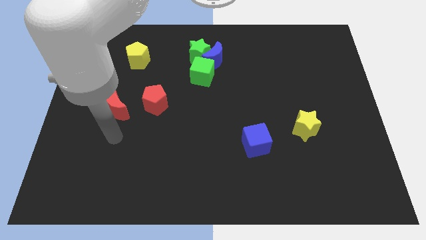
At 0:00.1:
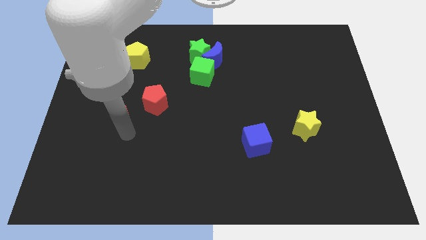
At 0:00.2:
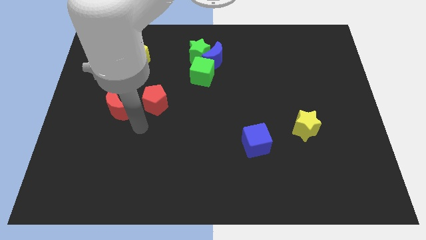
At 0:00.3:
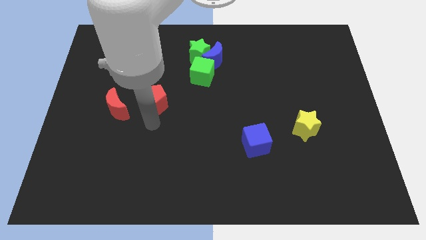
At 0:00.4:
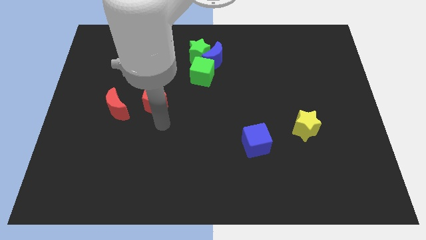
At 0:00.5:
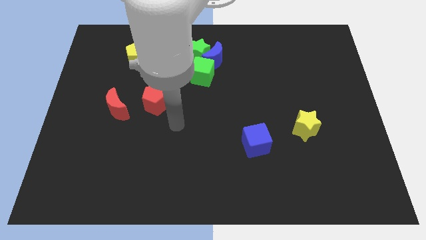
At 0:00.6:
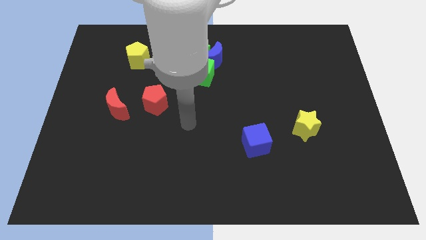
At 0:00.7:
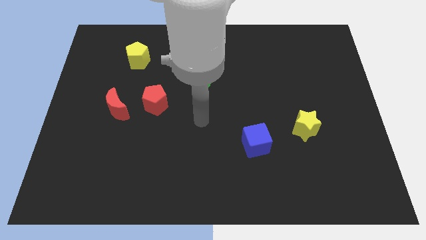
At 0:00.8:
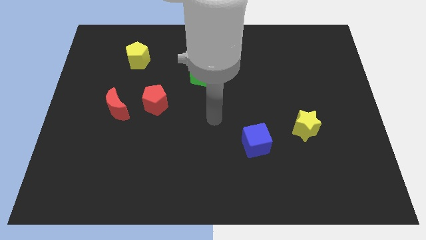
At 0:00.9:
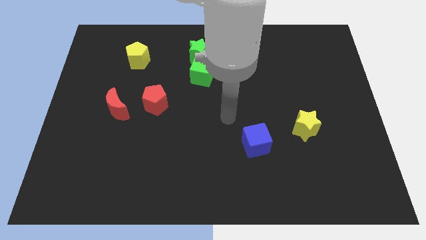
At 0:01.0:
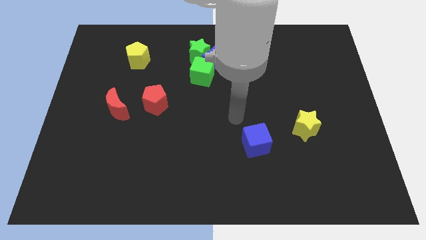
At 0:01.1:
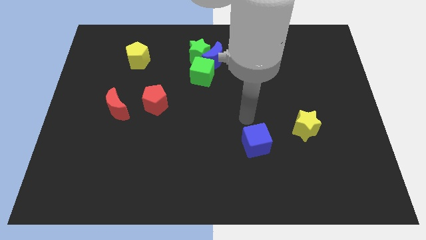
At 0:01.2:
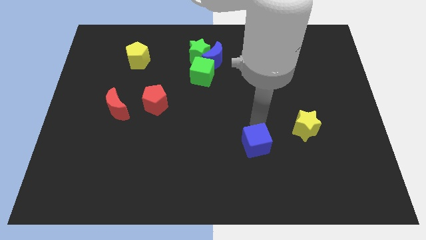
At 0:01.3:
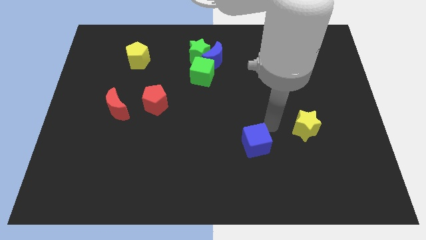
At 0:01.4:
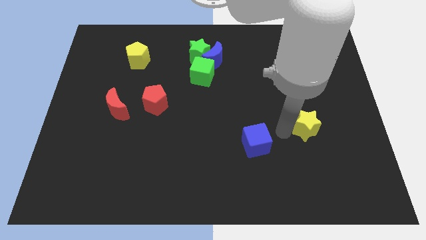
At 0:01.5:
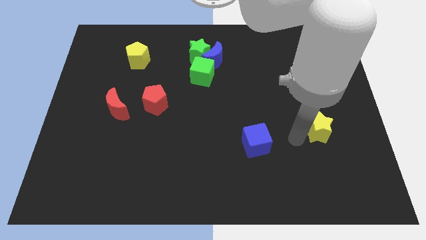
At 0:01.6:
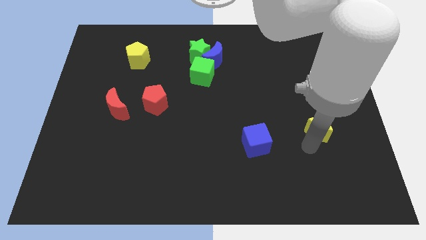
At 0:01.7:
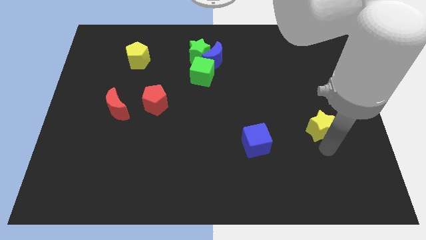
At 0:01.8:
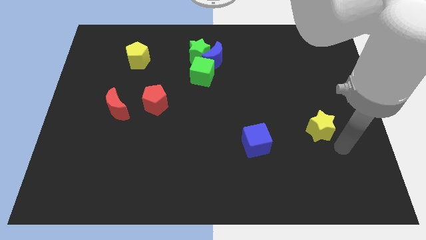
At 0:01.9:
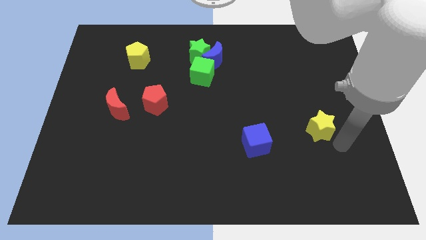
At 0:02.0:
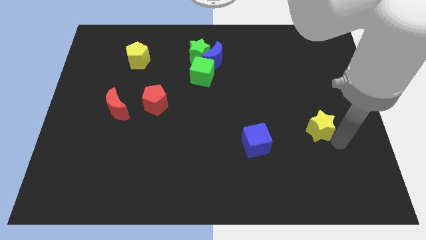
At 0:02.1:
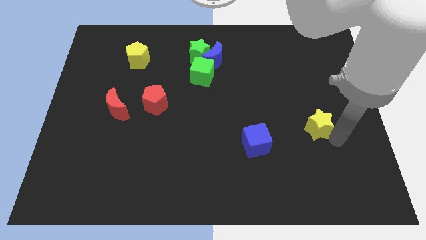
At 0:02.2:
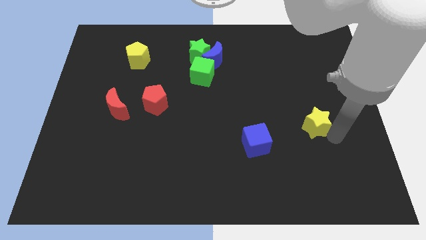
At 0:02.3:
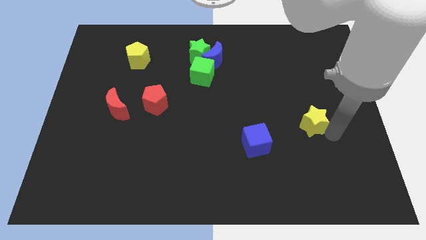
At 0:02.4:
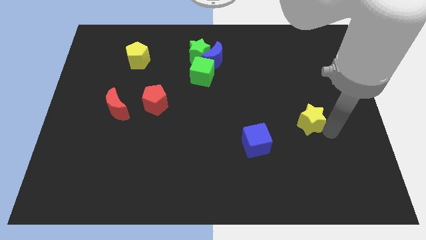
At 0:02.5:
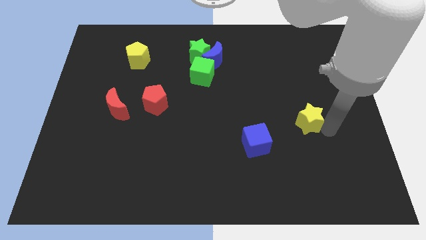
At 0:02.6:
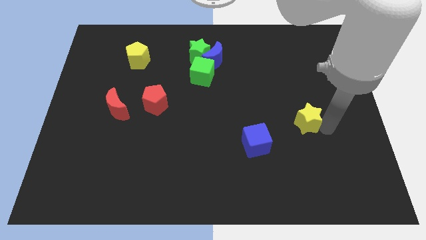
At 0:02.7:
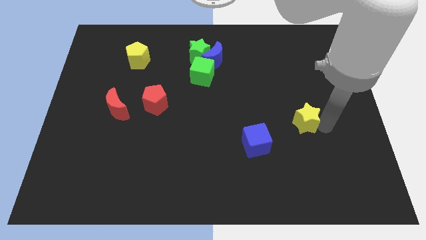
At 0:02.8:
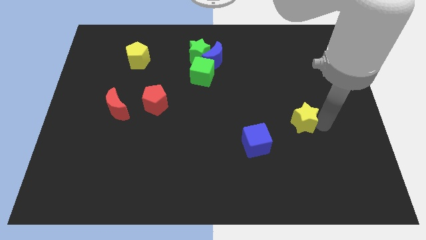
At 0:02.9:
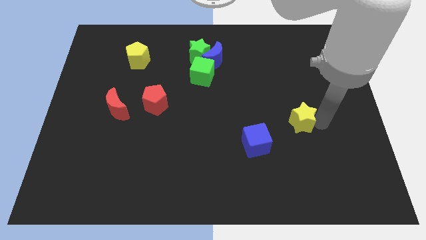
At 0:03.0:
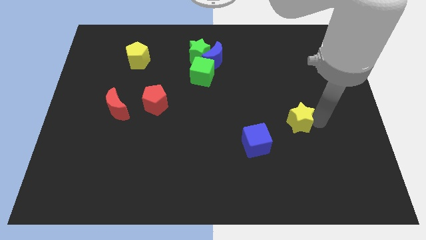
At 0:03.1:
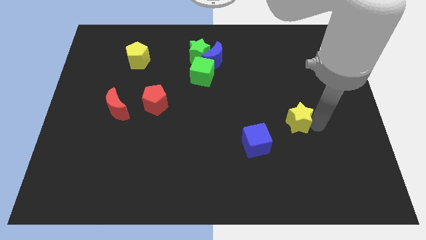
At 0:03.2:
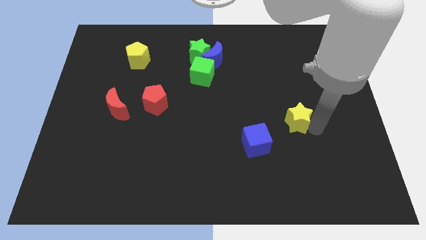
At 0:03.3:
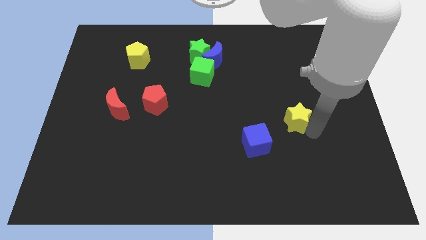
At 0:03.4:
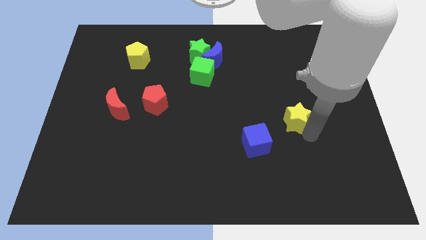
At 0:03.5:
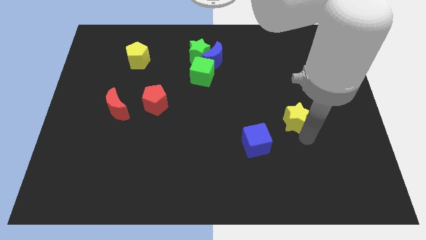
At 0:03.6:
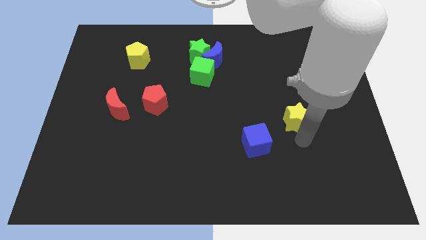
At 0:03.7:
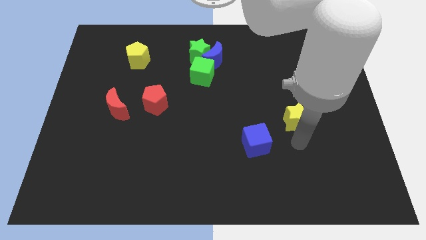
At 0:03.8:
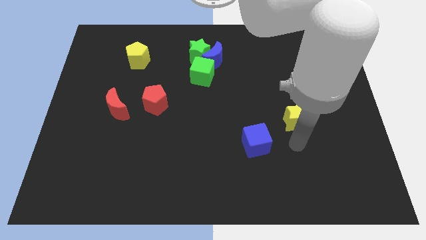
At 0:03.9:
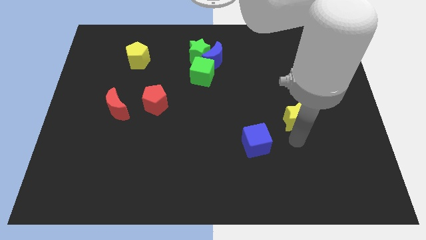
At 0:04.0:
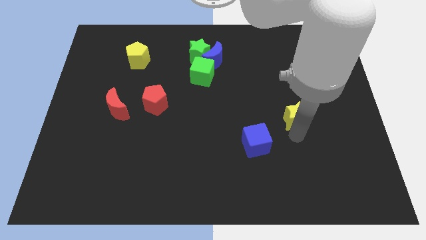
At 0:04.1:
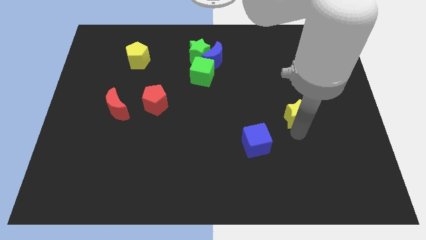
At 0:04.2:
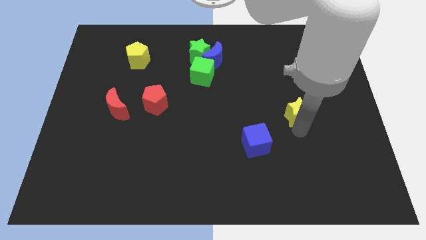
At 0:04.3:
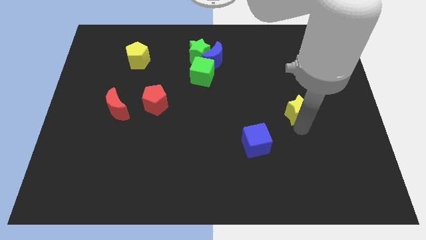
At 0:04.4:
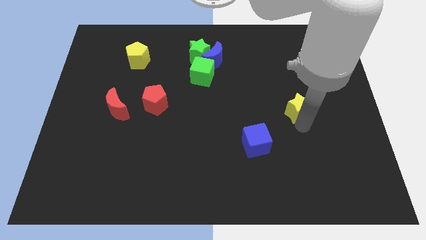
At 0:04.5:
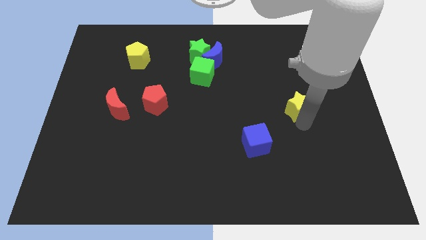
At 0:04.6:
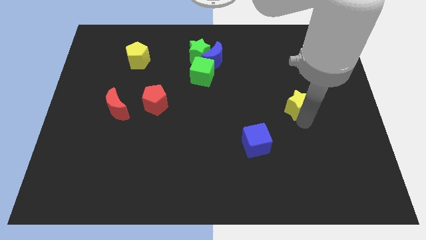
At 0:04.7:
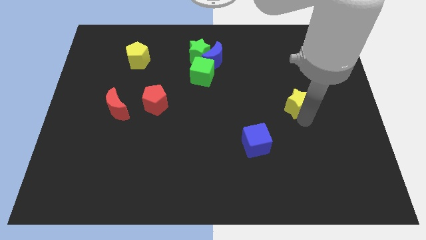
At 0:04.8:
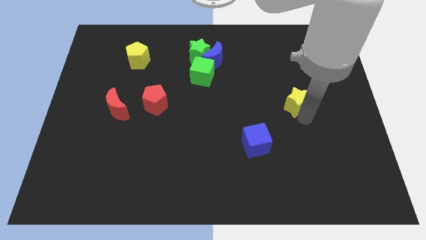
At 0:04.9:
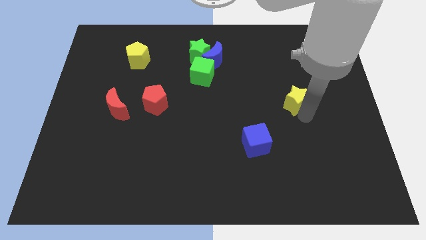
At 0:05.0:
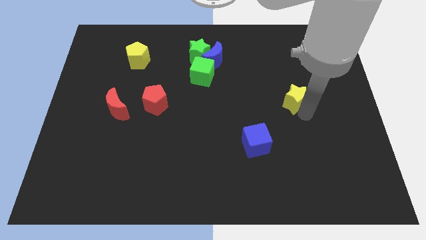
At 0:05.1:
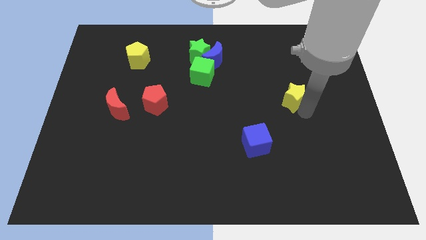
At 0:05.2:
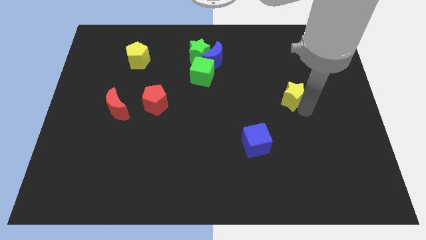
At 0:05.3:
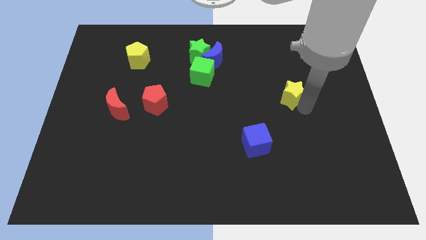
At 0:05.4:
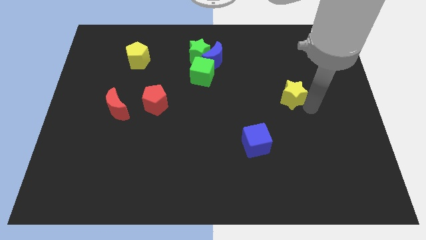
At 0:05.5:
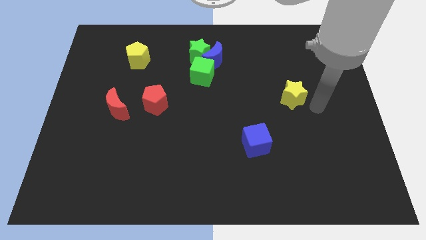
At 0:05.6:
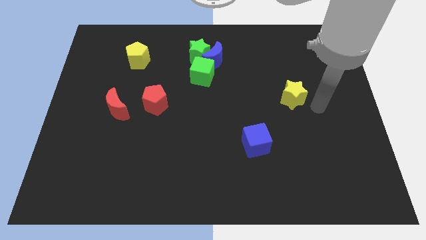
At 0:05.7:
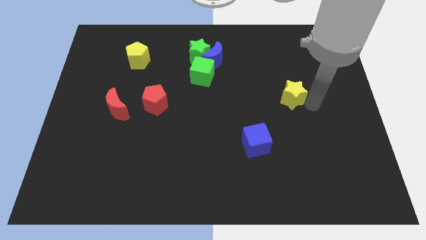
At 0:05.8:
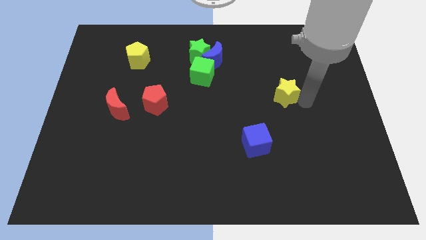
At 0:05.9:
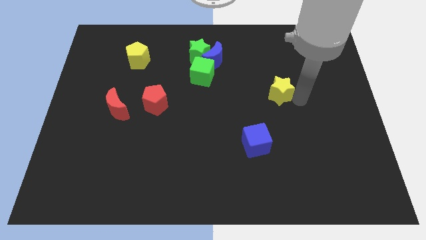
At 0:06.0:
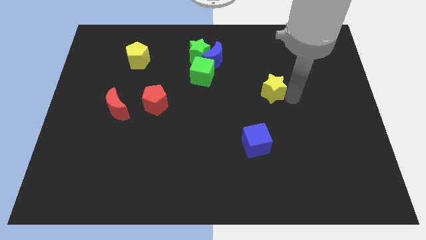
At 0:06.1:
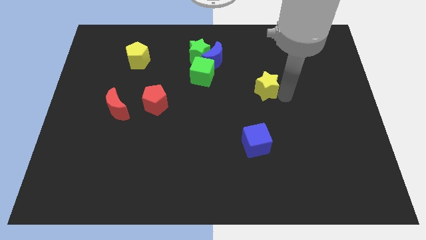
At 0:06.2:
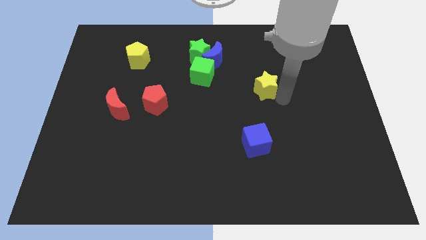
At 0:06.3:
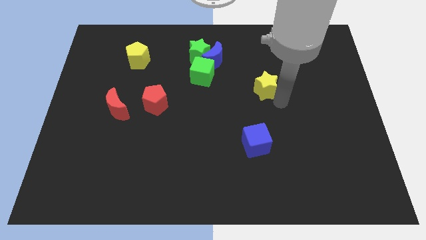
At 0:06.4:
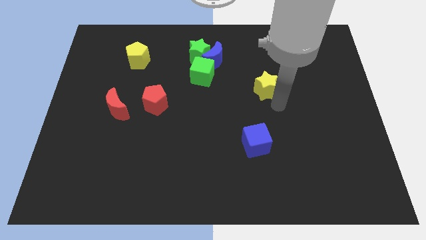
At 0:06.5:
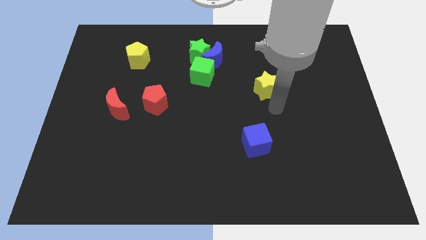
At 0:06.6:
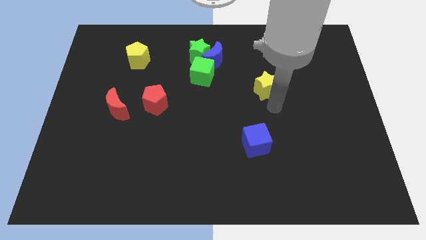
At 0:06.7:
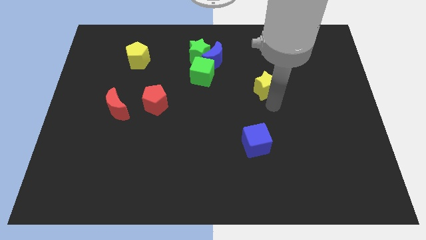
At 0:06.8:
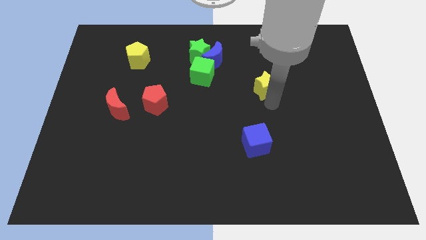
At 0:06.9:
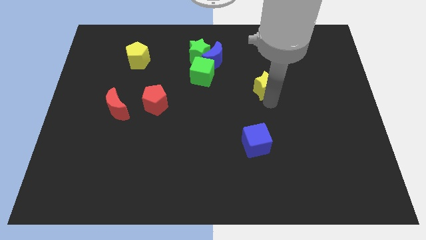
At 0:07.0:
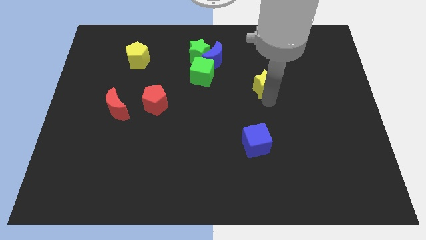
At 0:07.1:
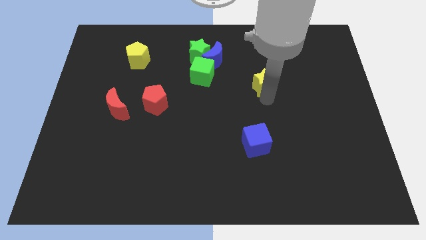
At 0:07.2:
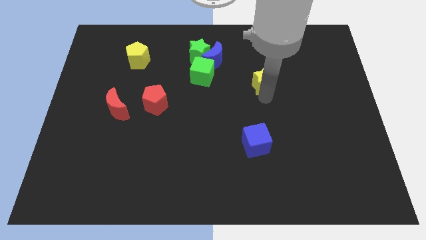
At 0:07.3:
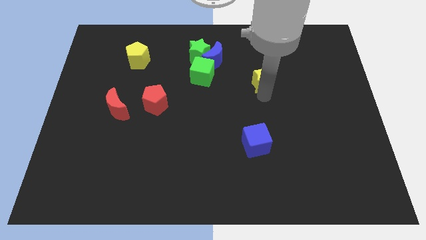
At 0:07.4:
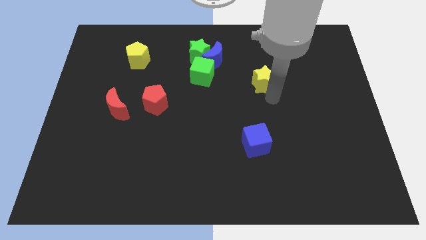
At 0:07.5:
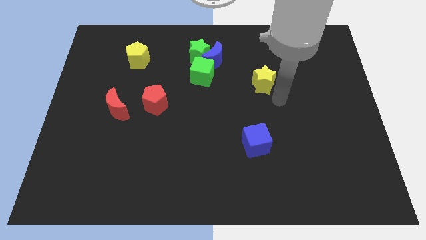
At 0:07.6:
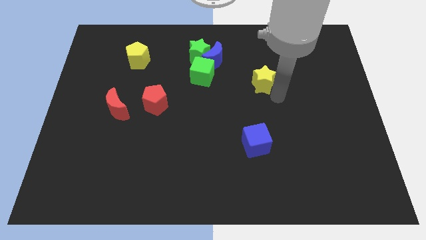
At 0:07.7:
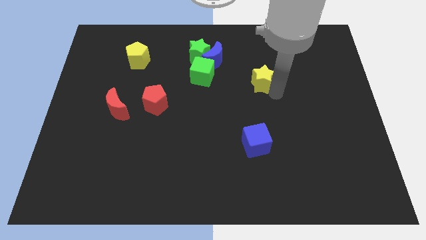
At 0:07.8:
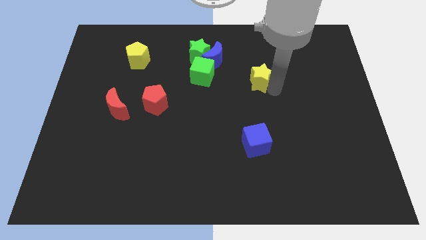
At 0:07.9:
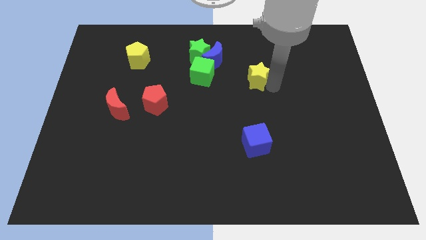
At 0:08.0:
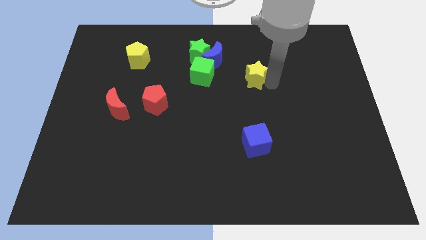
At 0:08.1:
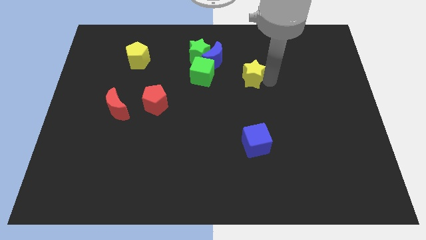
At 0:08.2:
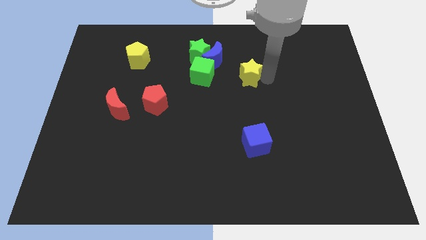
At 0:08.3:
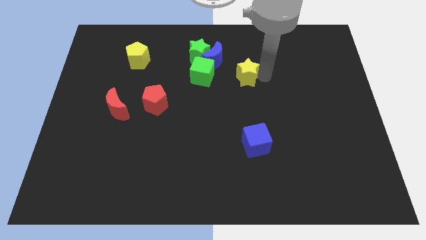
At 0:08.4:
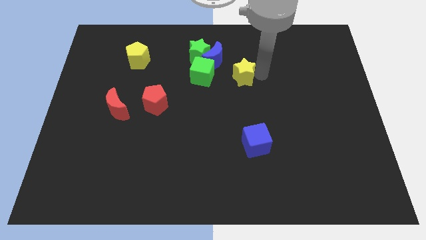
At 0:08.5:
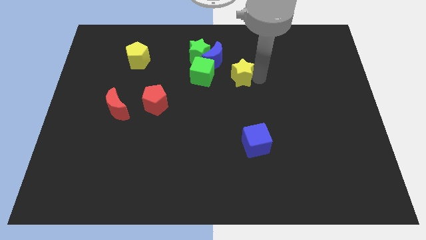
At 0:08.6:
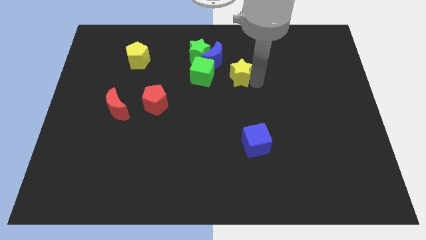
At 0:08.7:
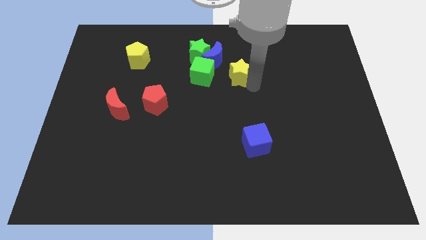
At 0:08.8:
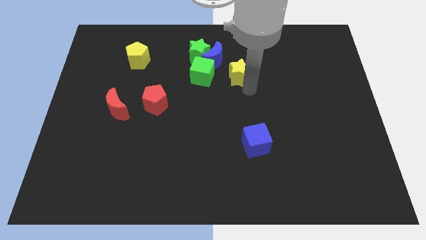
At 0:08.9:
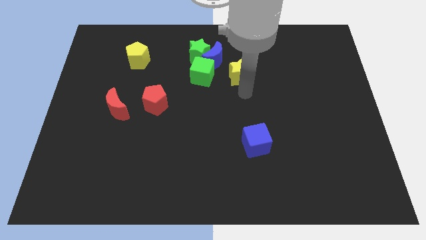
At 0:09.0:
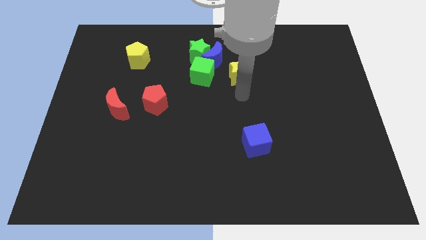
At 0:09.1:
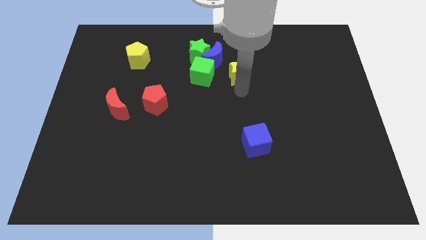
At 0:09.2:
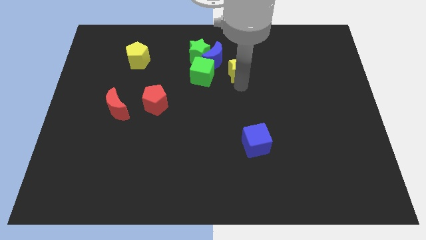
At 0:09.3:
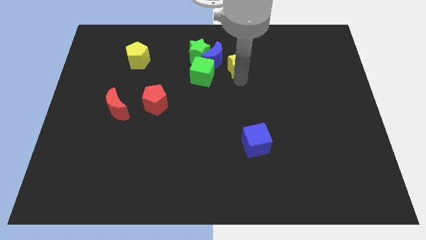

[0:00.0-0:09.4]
push the yellow star to the right side of the green star
